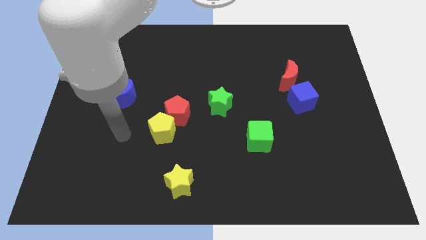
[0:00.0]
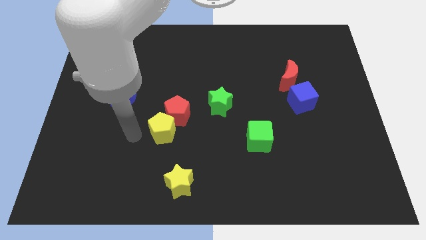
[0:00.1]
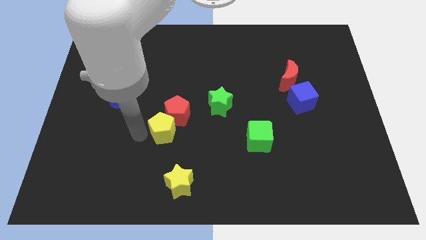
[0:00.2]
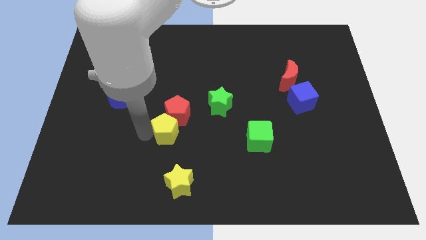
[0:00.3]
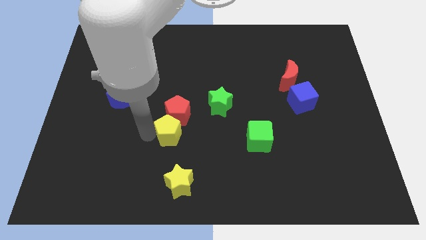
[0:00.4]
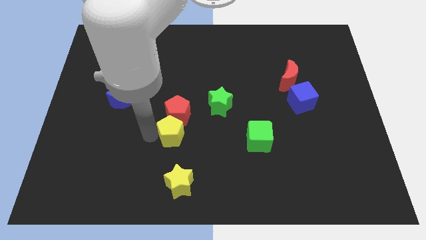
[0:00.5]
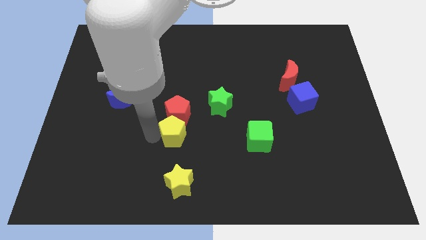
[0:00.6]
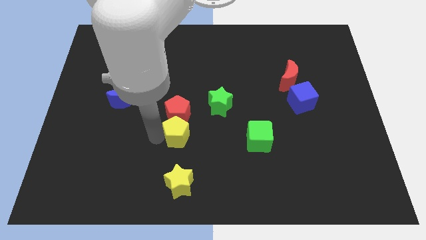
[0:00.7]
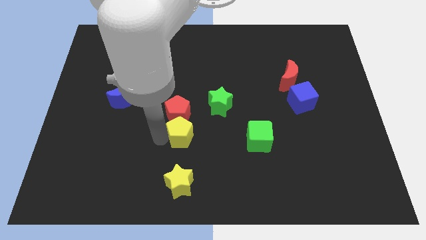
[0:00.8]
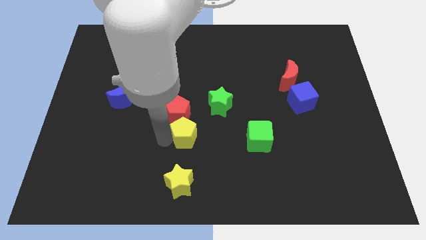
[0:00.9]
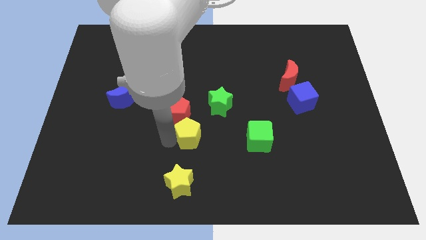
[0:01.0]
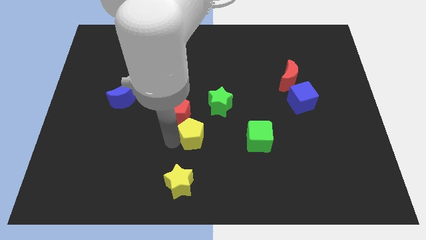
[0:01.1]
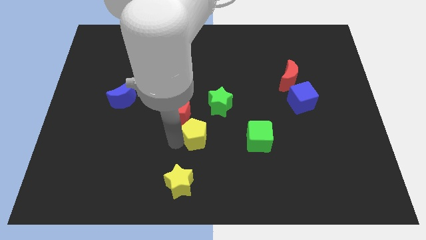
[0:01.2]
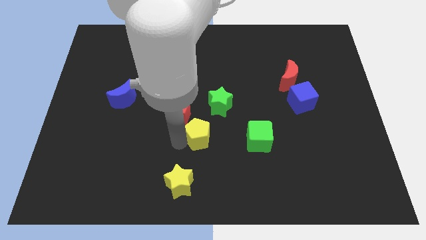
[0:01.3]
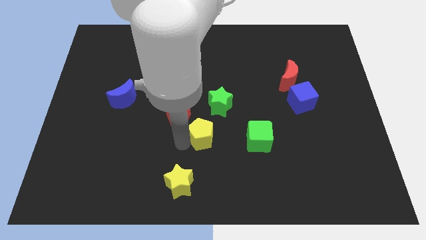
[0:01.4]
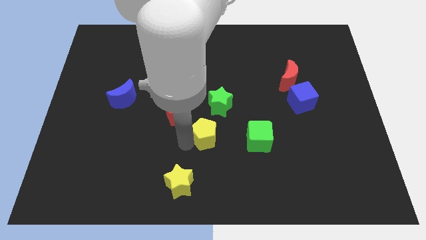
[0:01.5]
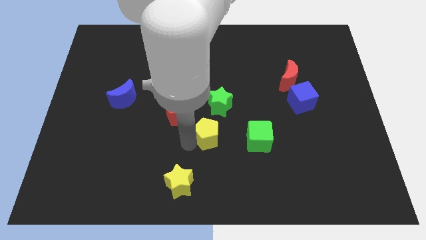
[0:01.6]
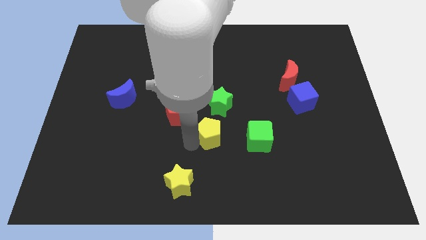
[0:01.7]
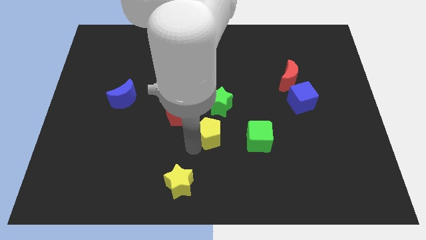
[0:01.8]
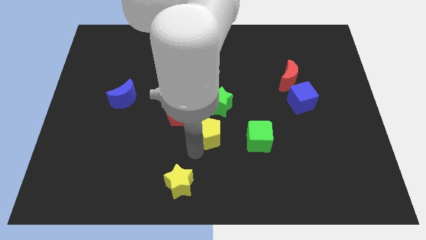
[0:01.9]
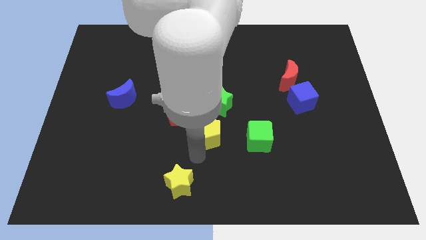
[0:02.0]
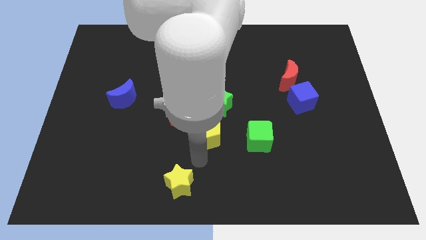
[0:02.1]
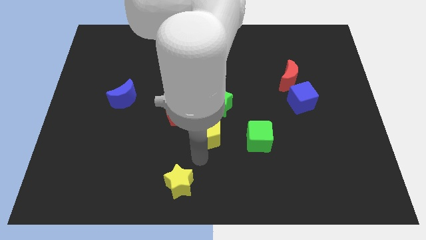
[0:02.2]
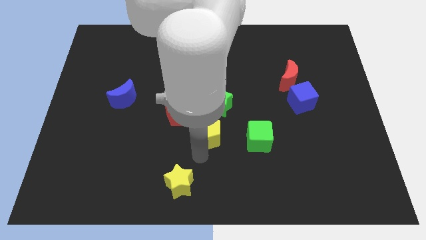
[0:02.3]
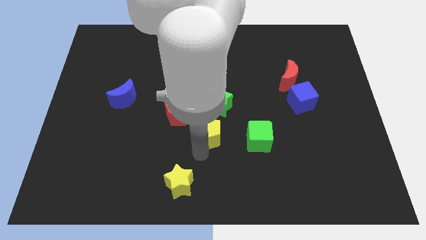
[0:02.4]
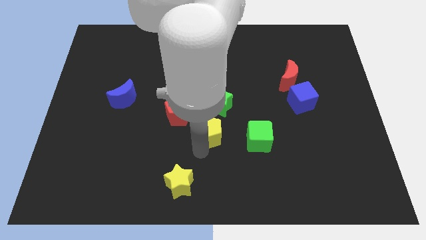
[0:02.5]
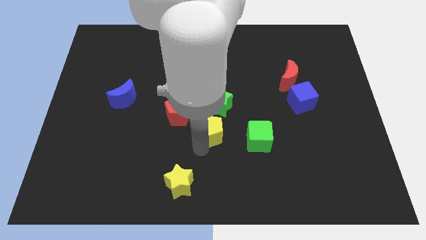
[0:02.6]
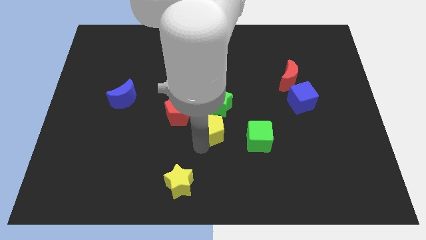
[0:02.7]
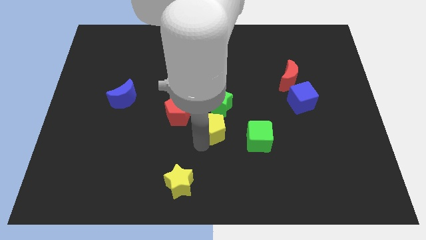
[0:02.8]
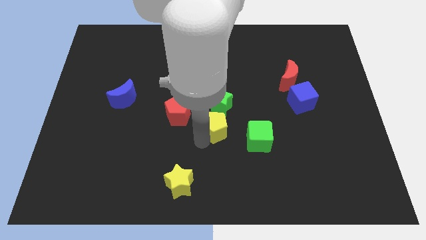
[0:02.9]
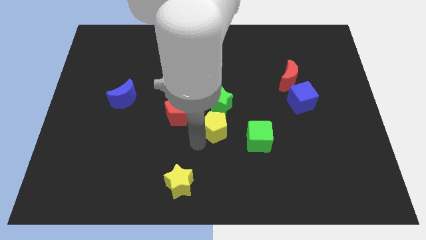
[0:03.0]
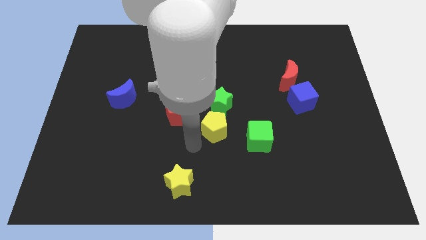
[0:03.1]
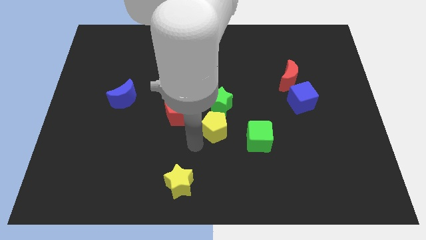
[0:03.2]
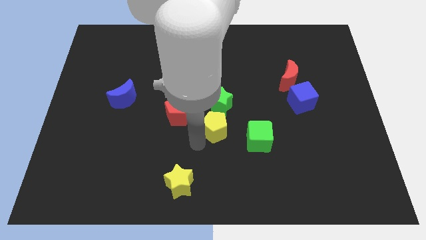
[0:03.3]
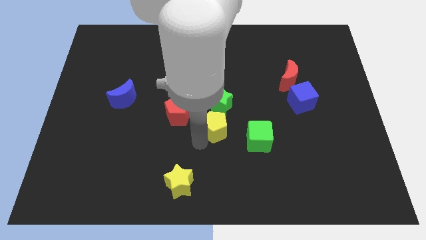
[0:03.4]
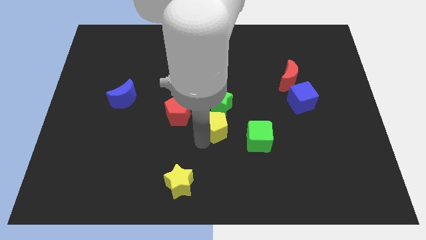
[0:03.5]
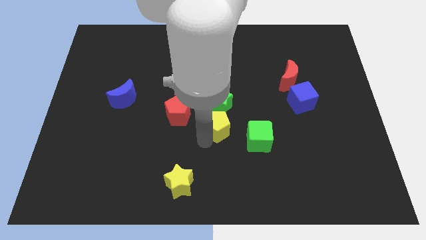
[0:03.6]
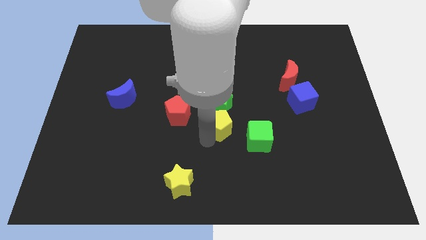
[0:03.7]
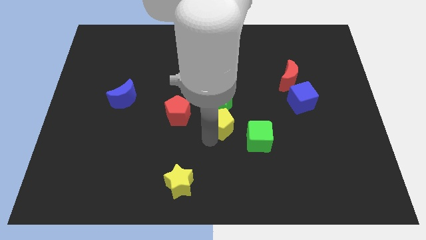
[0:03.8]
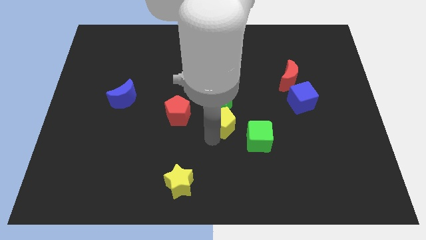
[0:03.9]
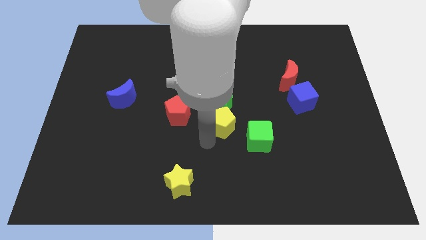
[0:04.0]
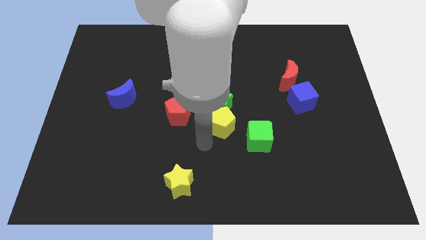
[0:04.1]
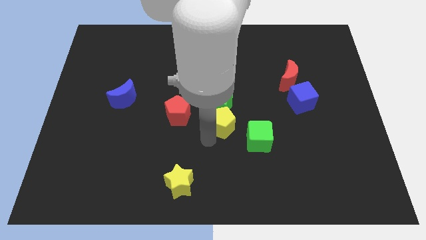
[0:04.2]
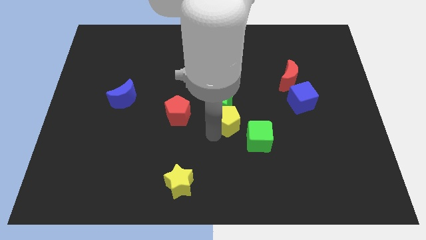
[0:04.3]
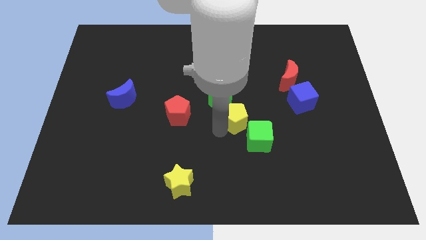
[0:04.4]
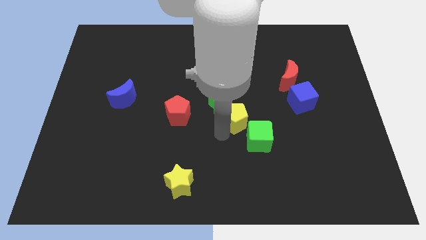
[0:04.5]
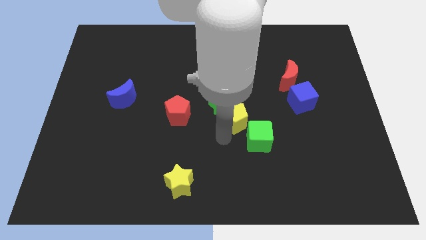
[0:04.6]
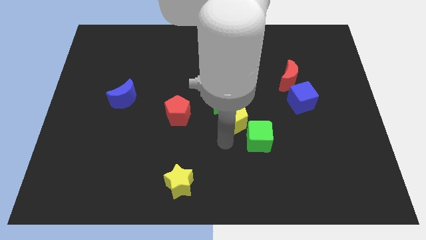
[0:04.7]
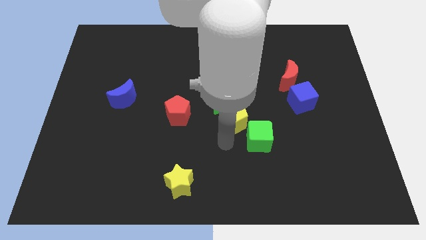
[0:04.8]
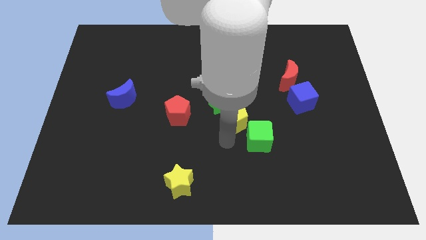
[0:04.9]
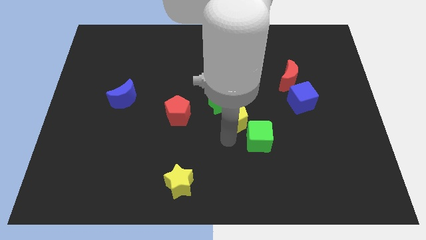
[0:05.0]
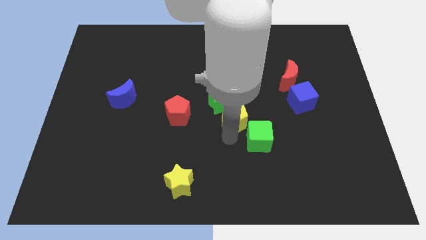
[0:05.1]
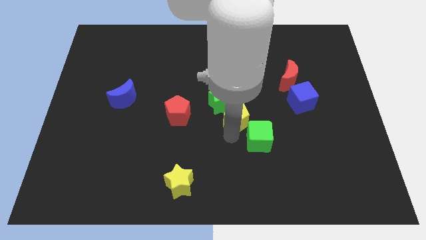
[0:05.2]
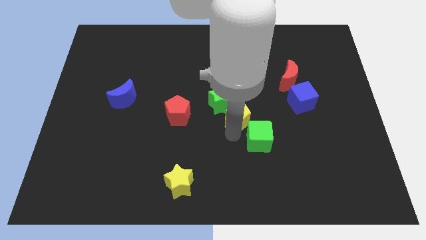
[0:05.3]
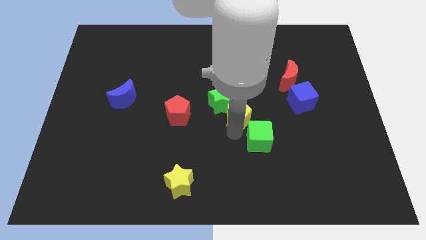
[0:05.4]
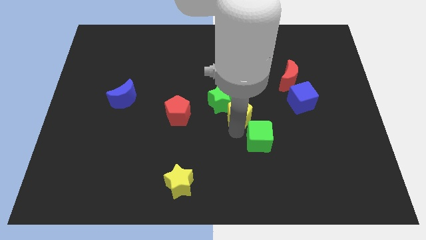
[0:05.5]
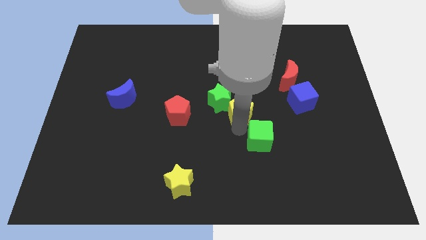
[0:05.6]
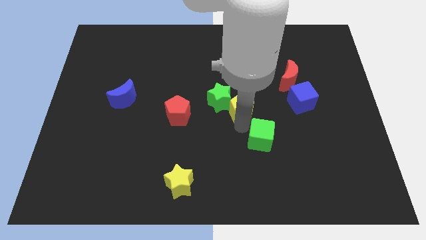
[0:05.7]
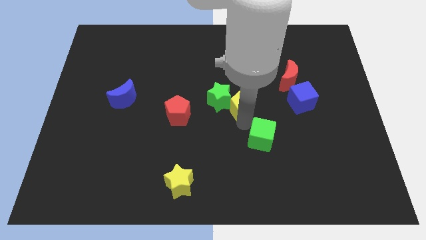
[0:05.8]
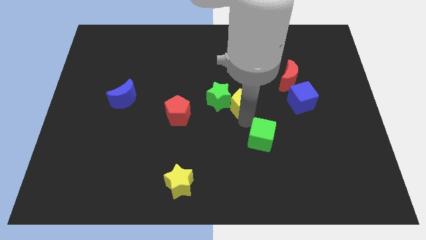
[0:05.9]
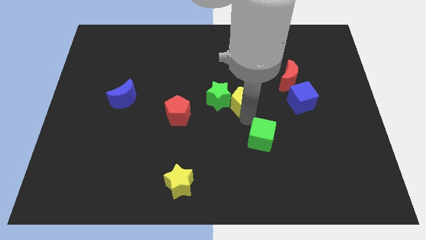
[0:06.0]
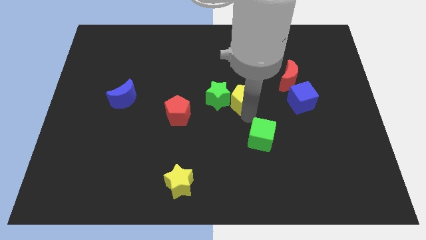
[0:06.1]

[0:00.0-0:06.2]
slide the yellow pentagon to the top right of the green star
